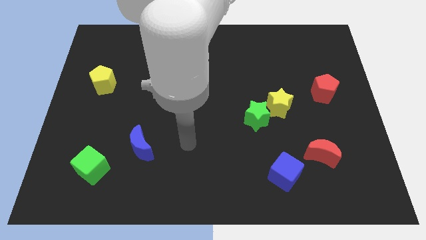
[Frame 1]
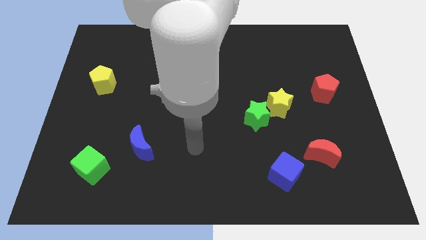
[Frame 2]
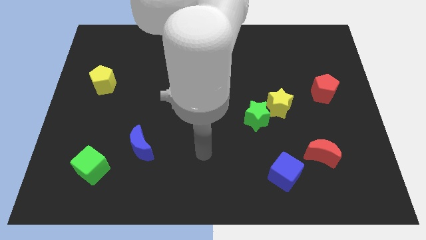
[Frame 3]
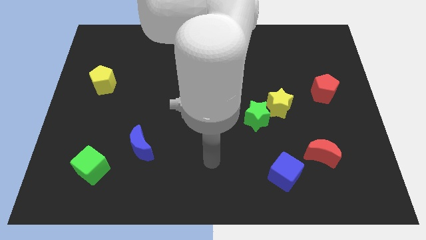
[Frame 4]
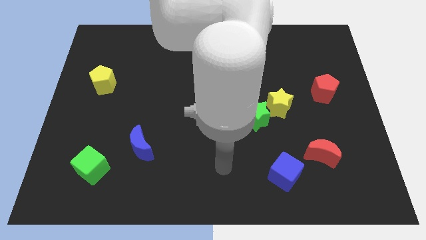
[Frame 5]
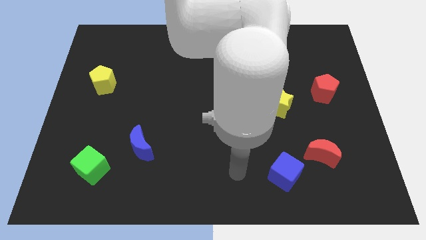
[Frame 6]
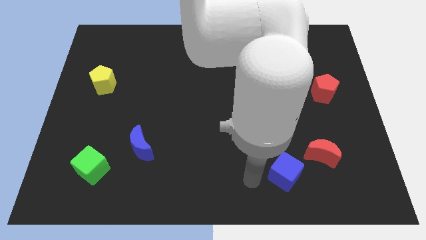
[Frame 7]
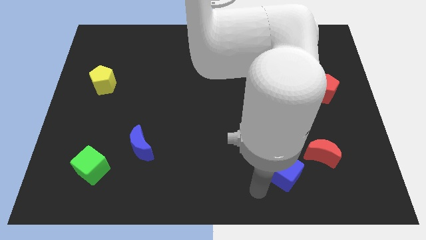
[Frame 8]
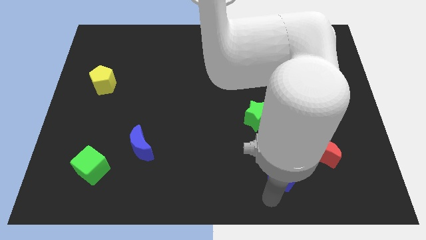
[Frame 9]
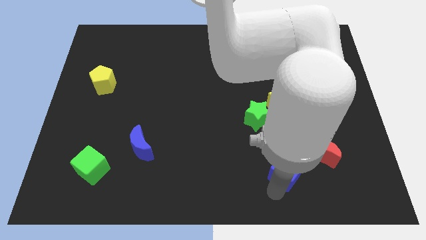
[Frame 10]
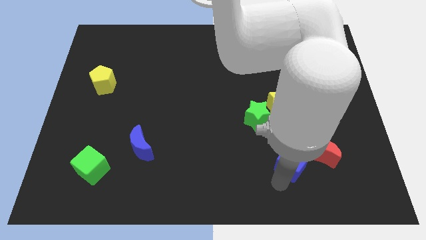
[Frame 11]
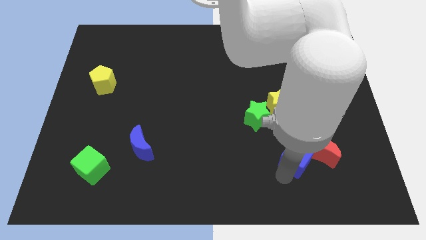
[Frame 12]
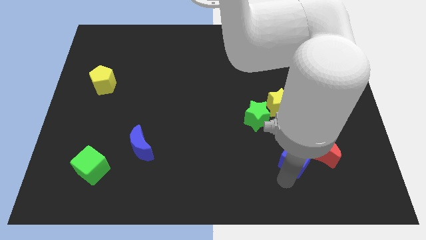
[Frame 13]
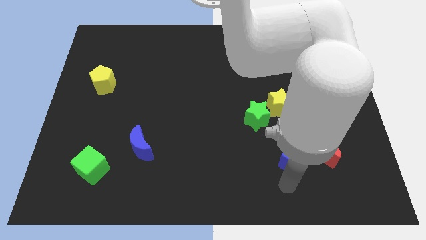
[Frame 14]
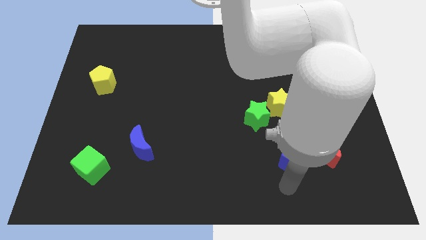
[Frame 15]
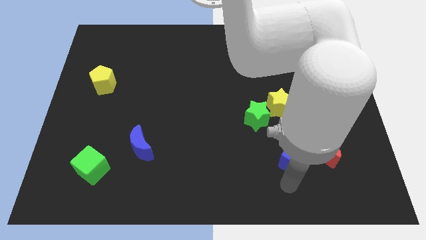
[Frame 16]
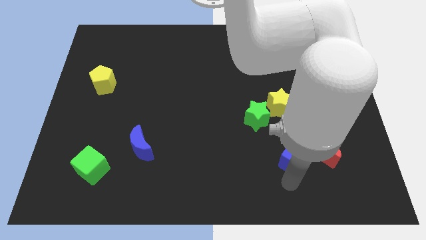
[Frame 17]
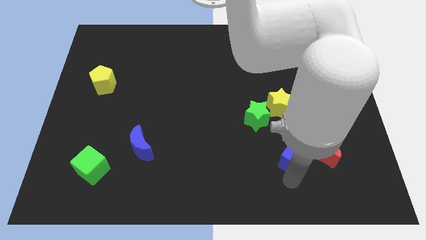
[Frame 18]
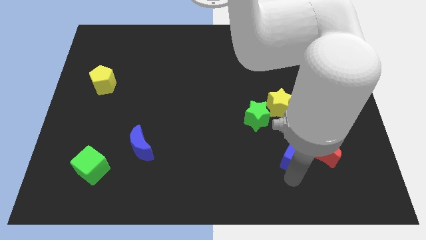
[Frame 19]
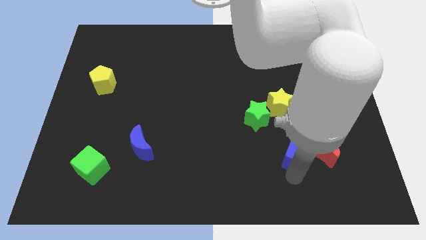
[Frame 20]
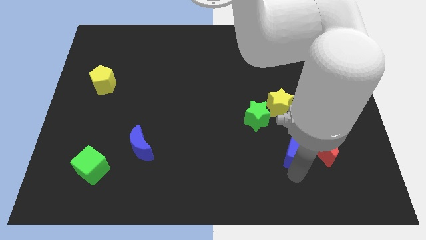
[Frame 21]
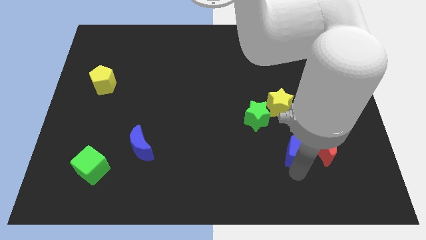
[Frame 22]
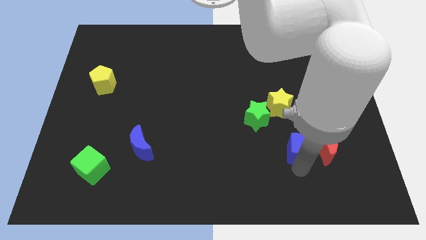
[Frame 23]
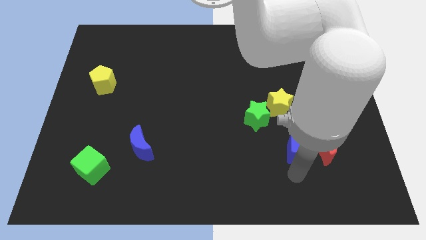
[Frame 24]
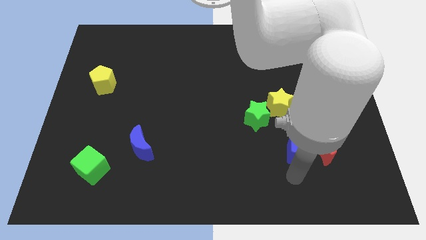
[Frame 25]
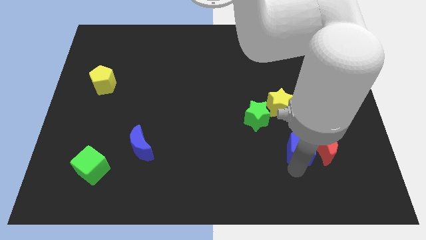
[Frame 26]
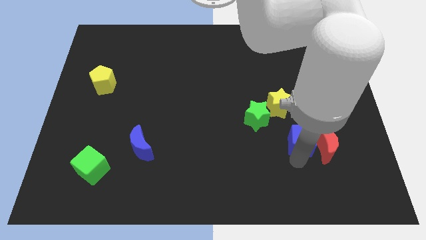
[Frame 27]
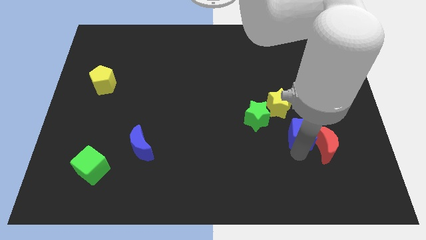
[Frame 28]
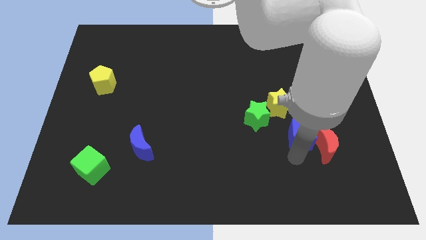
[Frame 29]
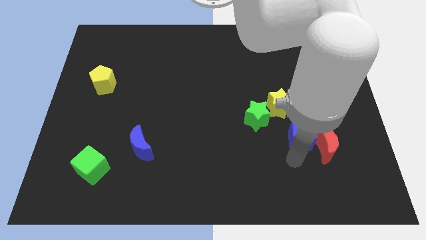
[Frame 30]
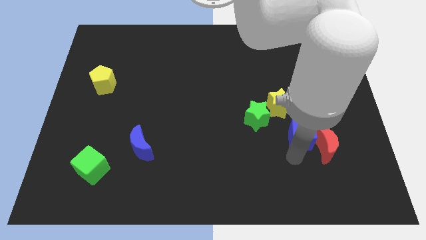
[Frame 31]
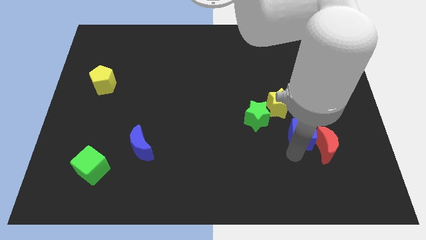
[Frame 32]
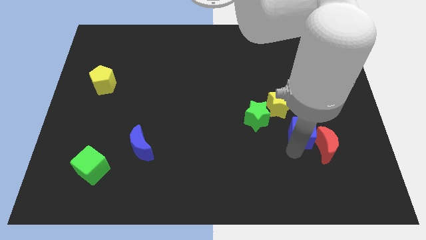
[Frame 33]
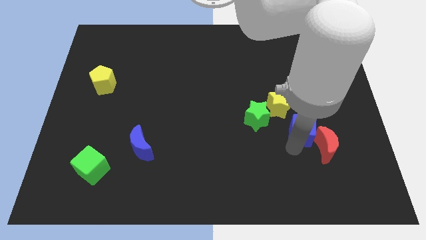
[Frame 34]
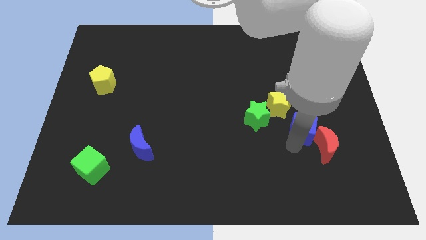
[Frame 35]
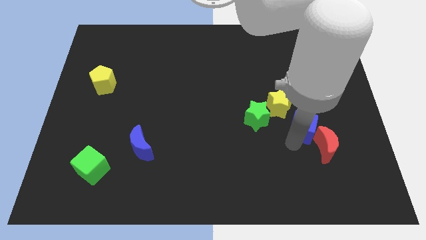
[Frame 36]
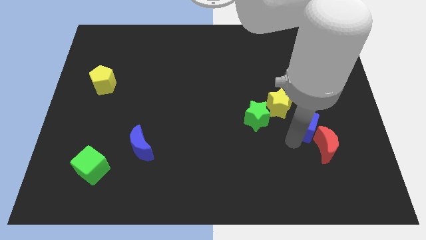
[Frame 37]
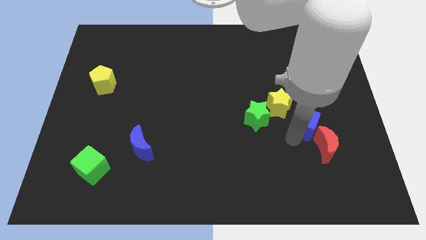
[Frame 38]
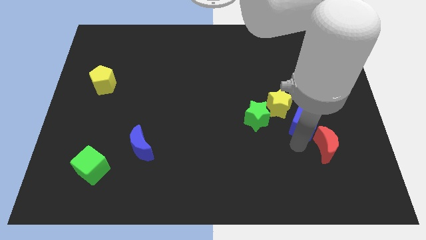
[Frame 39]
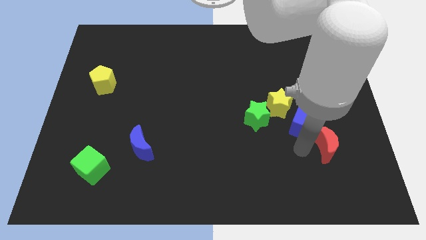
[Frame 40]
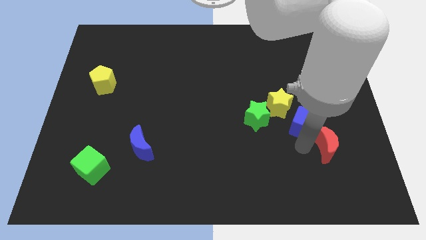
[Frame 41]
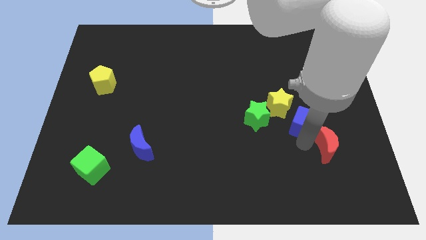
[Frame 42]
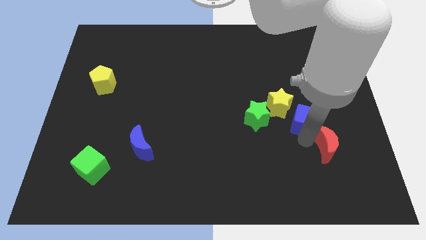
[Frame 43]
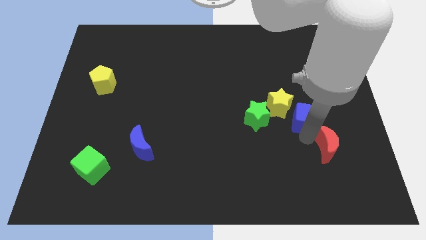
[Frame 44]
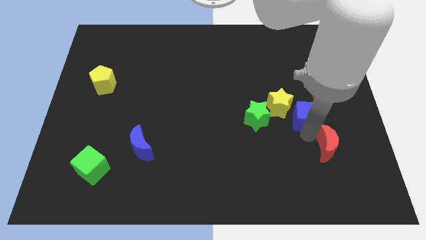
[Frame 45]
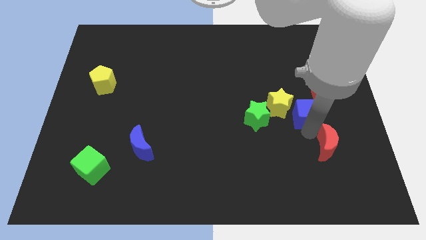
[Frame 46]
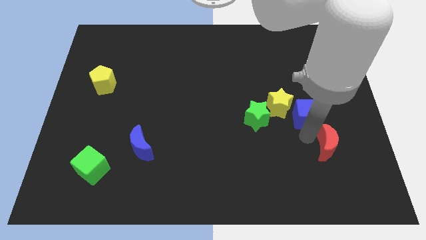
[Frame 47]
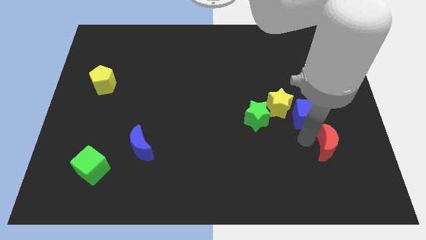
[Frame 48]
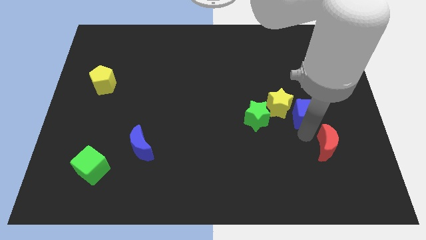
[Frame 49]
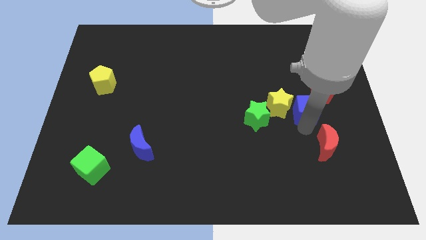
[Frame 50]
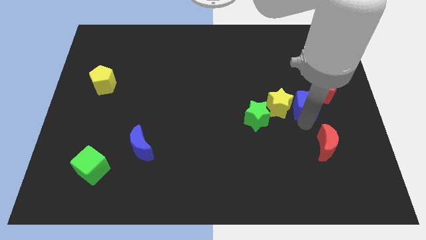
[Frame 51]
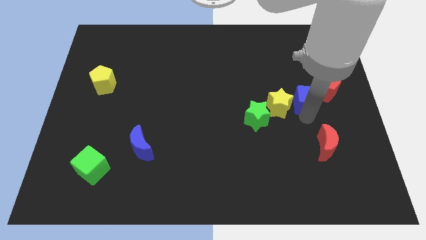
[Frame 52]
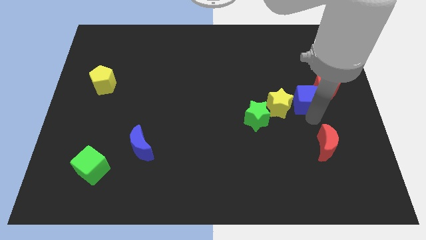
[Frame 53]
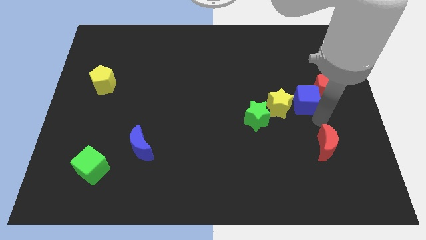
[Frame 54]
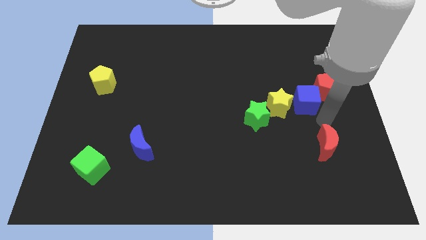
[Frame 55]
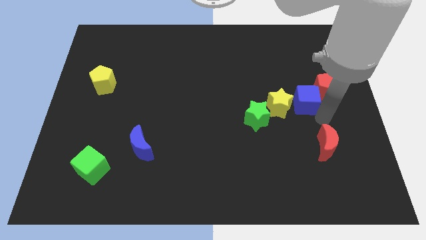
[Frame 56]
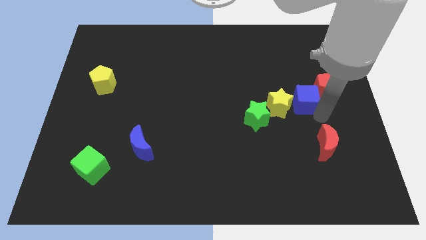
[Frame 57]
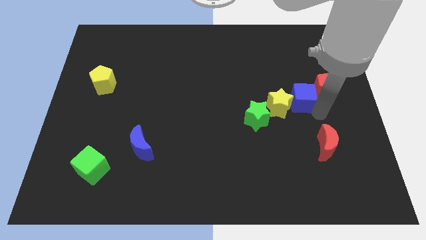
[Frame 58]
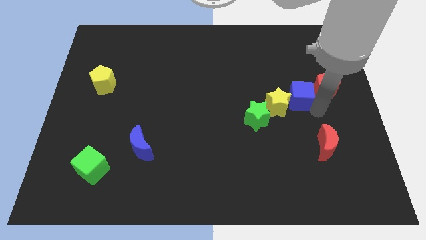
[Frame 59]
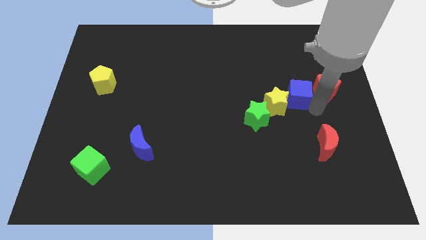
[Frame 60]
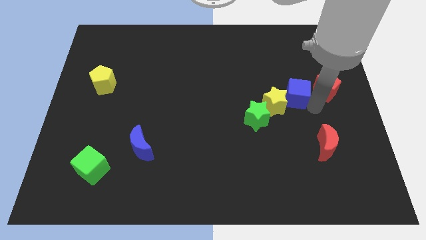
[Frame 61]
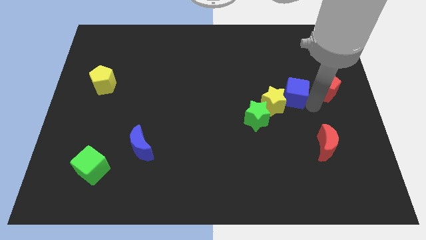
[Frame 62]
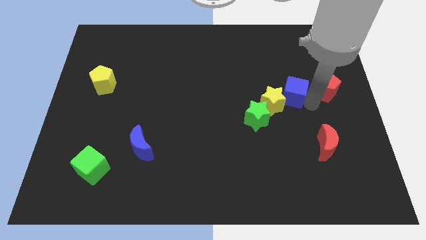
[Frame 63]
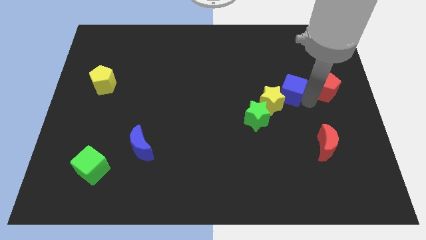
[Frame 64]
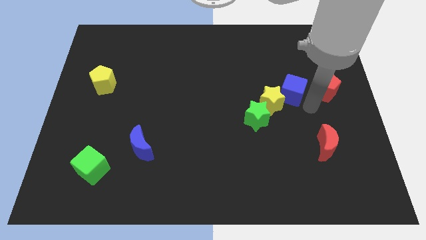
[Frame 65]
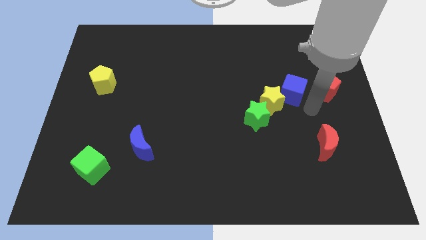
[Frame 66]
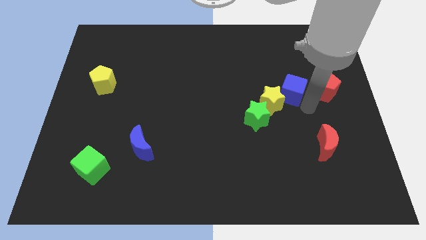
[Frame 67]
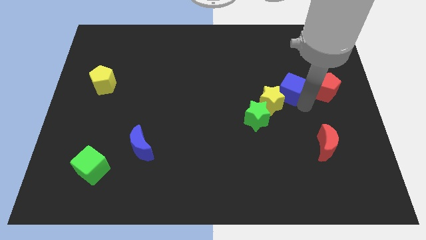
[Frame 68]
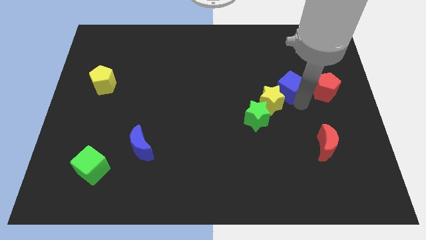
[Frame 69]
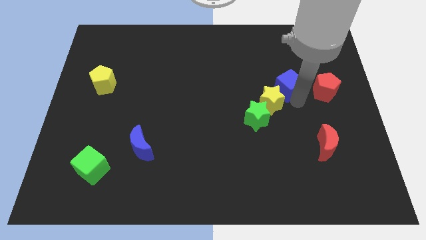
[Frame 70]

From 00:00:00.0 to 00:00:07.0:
push the blue cube above the yellow star
